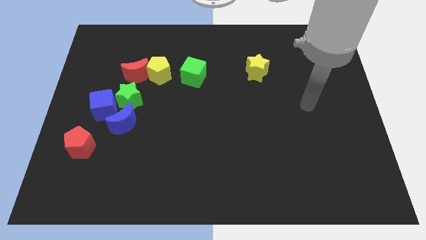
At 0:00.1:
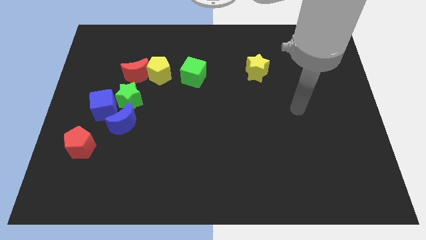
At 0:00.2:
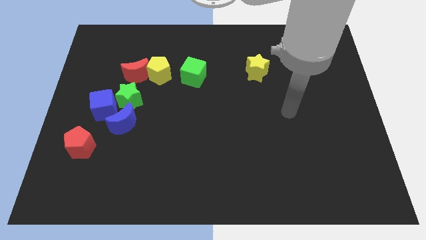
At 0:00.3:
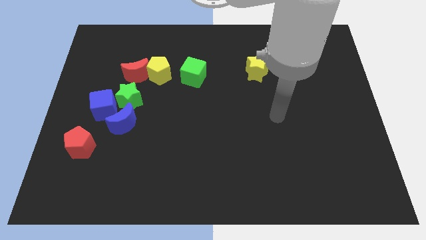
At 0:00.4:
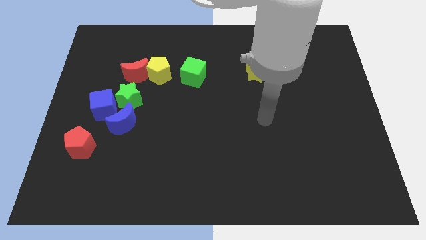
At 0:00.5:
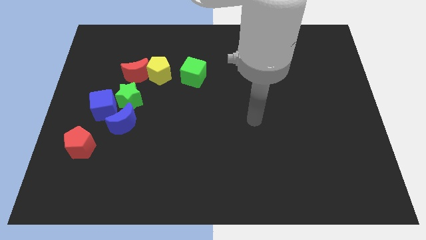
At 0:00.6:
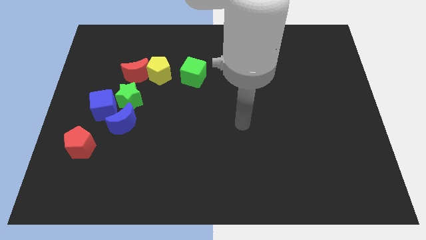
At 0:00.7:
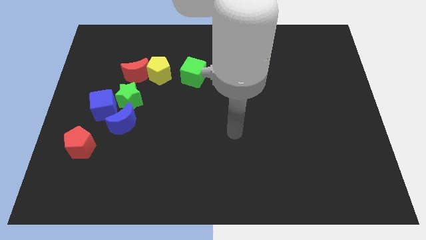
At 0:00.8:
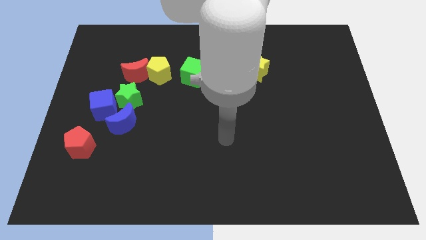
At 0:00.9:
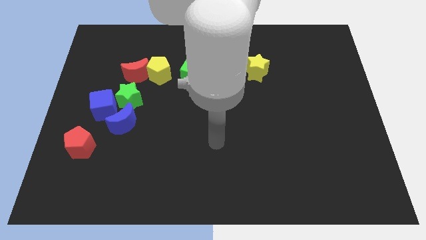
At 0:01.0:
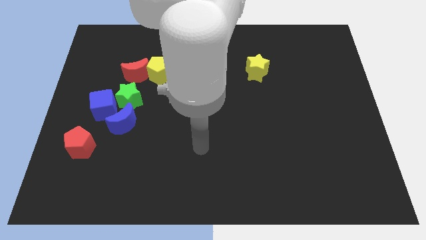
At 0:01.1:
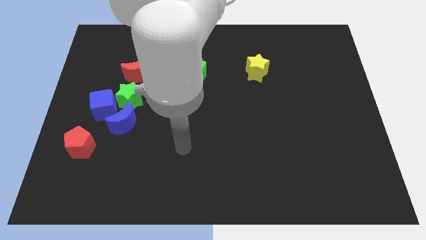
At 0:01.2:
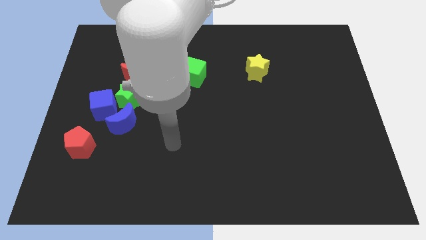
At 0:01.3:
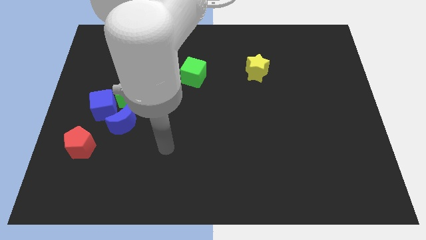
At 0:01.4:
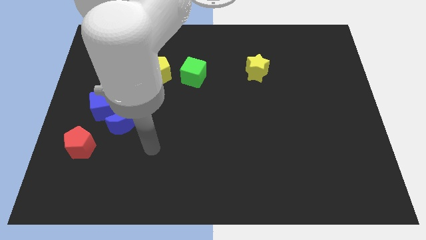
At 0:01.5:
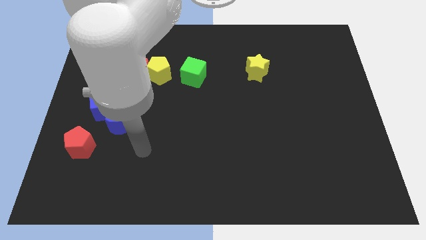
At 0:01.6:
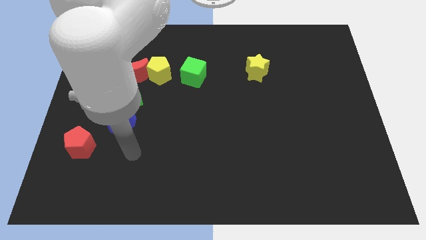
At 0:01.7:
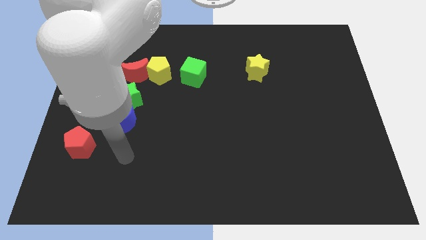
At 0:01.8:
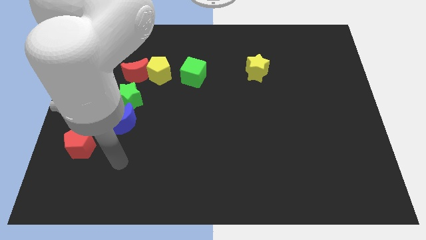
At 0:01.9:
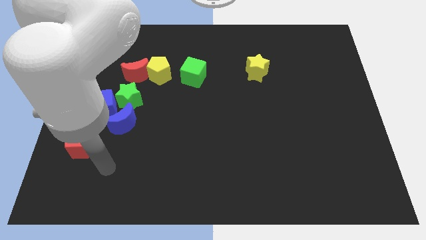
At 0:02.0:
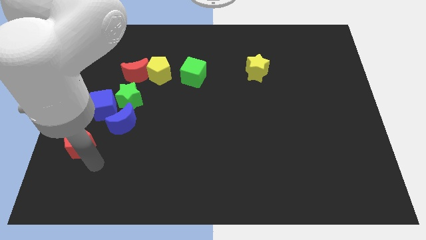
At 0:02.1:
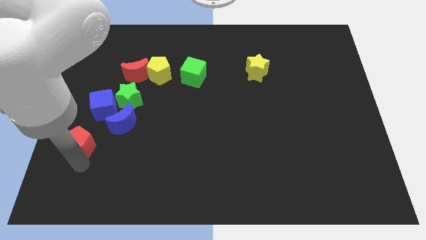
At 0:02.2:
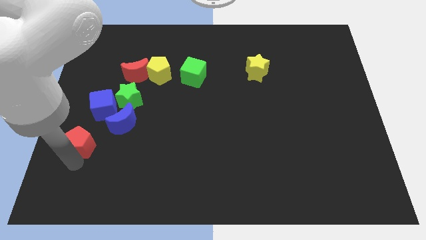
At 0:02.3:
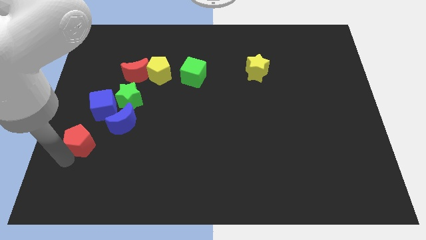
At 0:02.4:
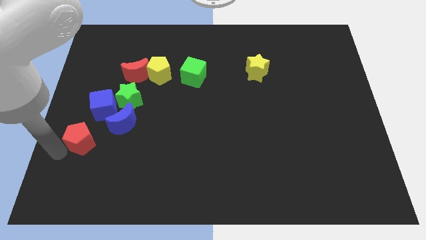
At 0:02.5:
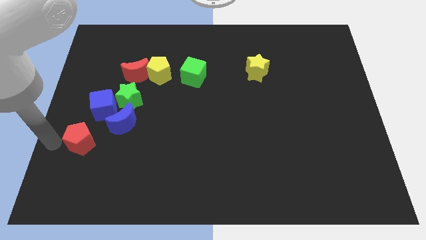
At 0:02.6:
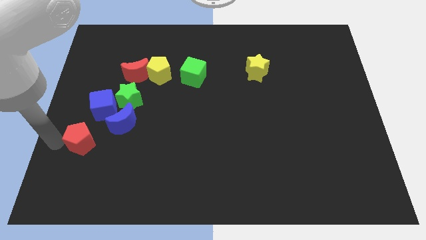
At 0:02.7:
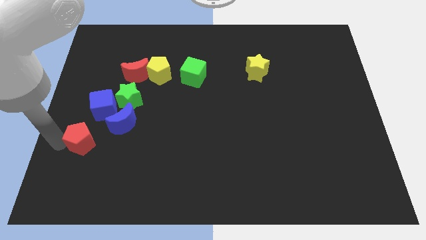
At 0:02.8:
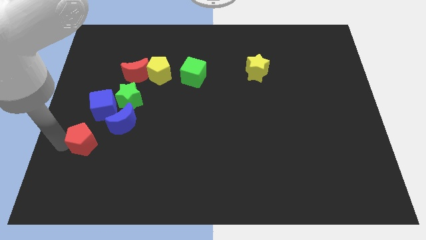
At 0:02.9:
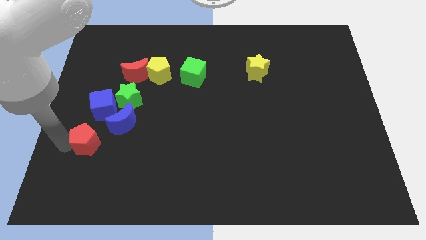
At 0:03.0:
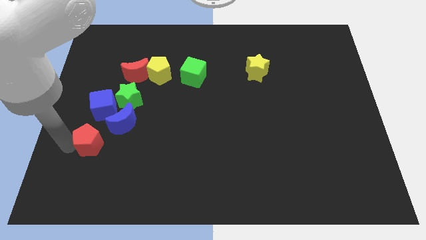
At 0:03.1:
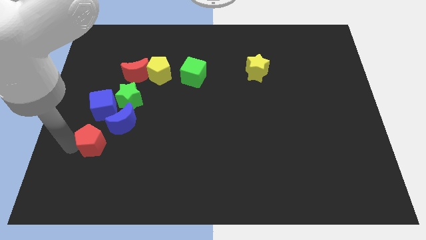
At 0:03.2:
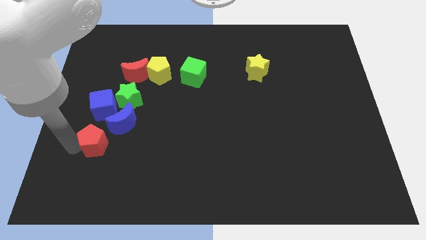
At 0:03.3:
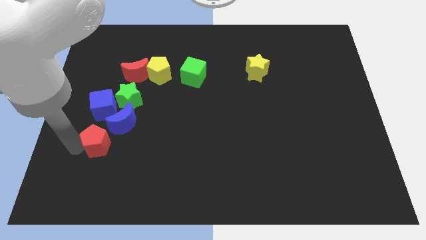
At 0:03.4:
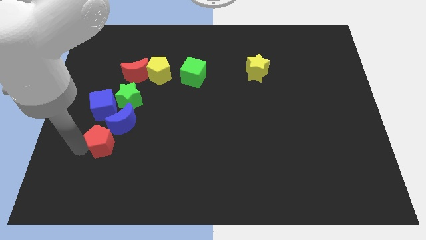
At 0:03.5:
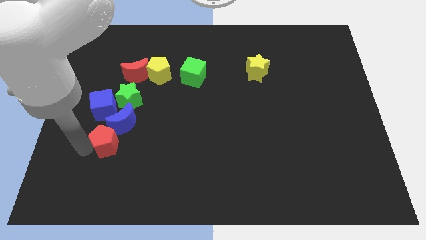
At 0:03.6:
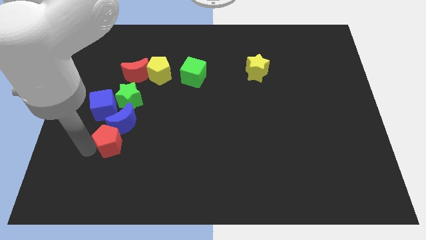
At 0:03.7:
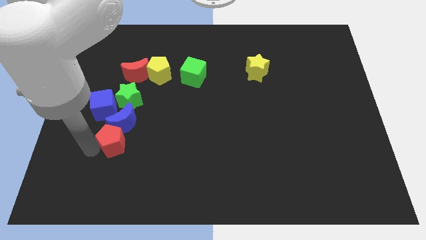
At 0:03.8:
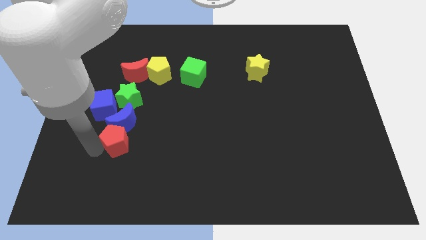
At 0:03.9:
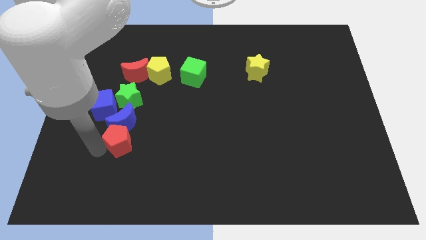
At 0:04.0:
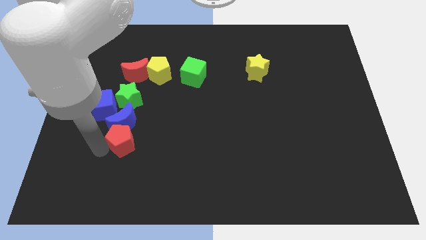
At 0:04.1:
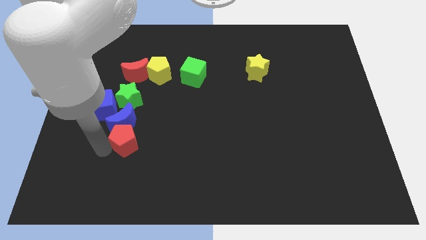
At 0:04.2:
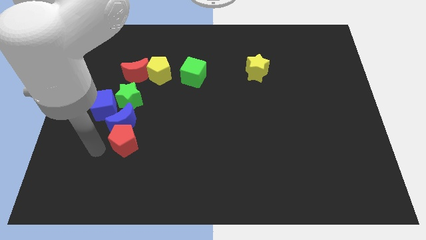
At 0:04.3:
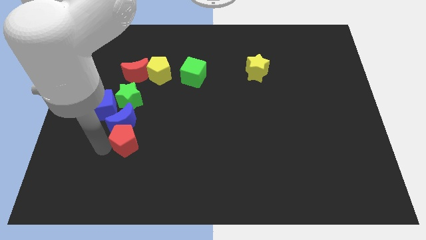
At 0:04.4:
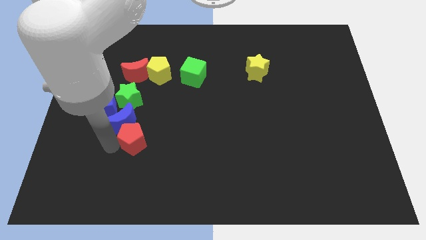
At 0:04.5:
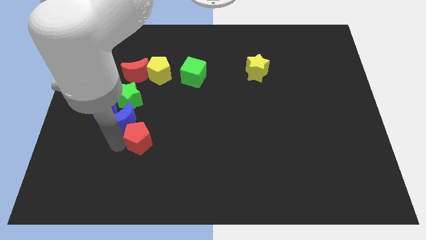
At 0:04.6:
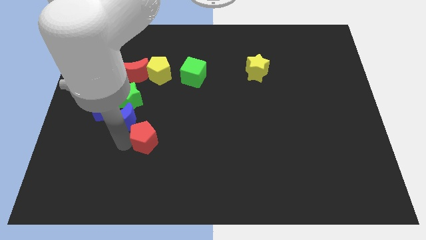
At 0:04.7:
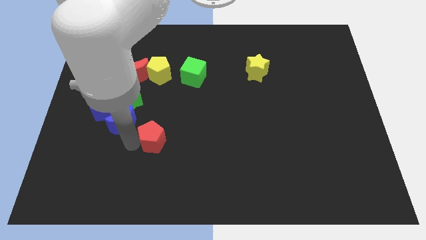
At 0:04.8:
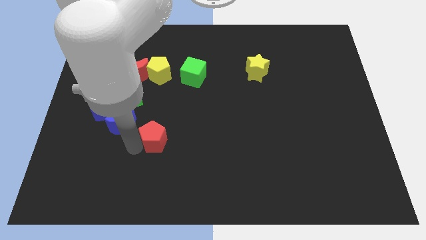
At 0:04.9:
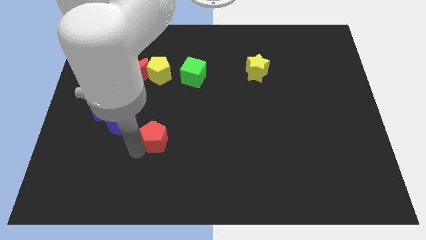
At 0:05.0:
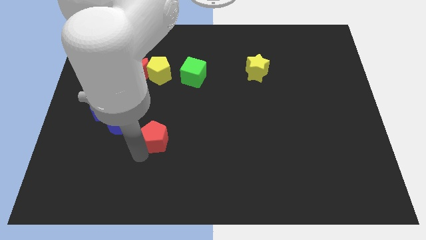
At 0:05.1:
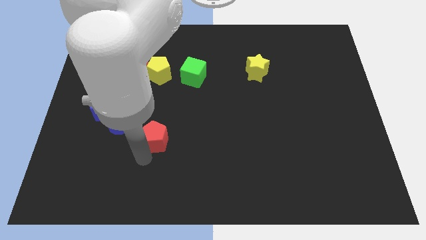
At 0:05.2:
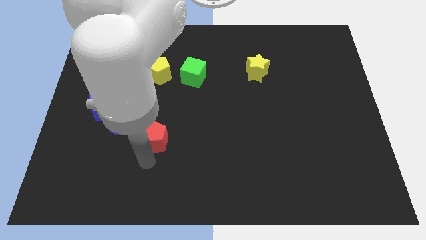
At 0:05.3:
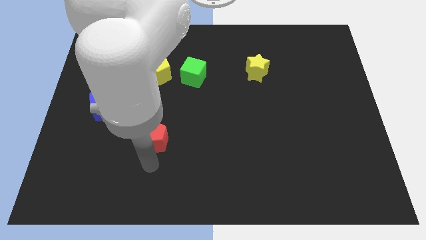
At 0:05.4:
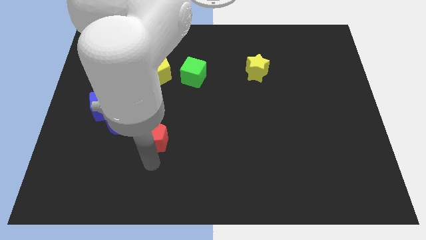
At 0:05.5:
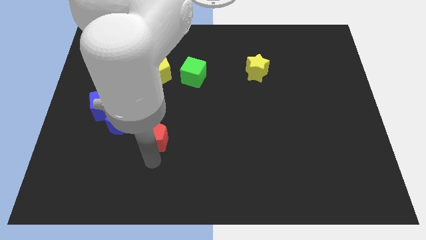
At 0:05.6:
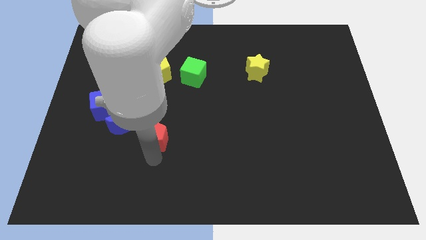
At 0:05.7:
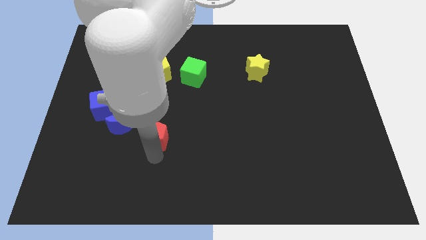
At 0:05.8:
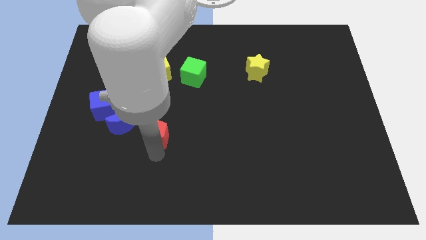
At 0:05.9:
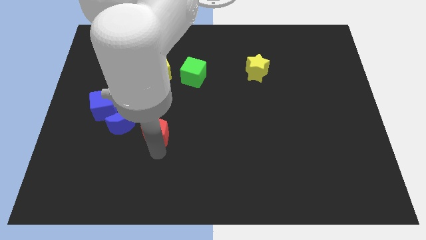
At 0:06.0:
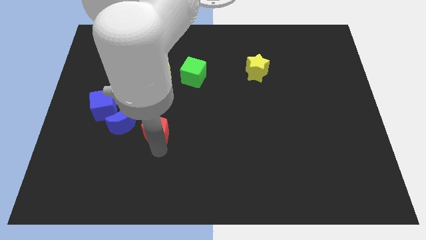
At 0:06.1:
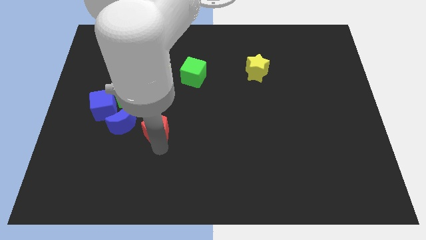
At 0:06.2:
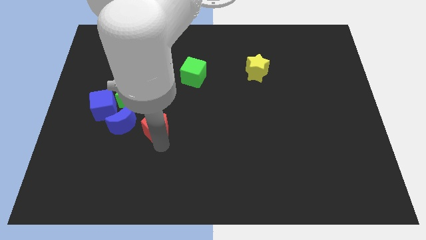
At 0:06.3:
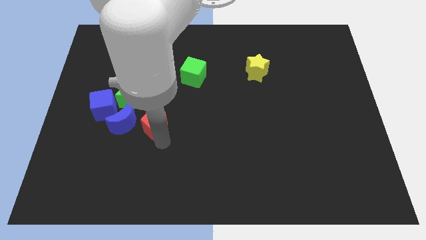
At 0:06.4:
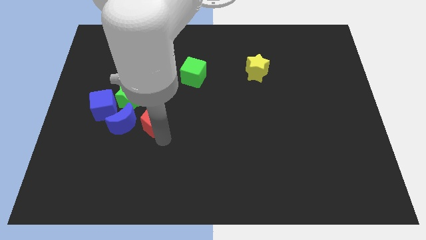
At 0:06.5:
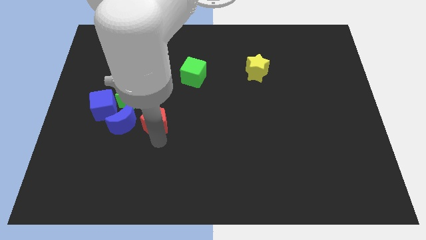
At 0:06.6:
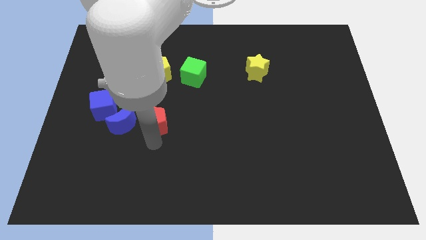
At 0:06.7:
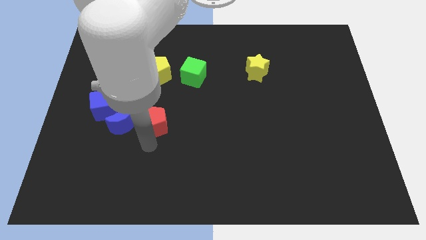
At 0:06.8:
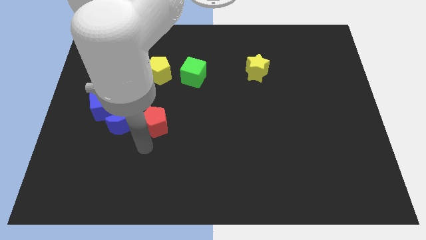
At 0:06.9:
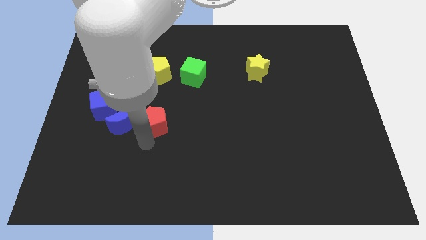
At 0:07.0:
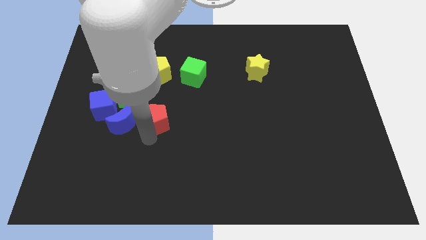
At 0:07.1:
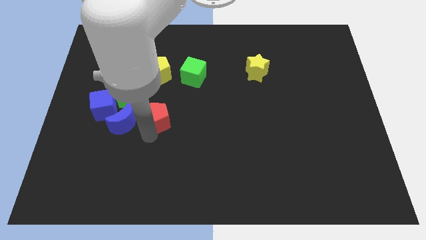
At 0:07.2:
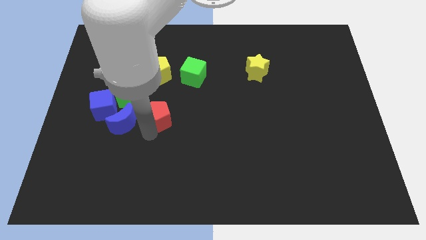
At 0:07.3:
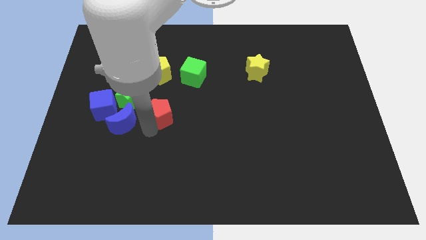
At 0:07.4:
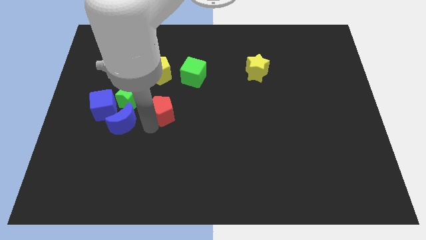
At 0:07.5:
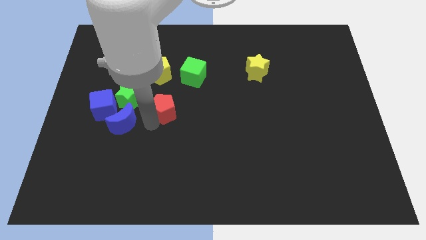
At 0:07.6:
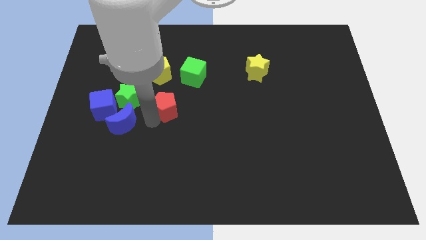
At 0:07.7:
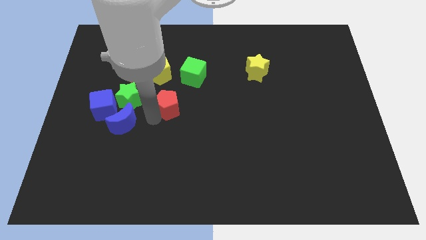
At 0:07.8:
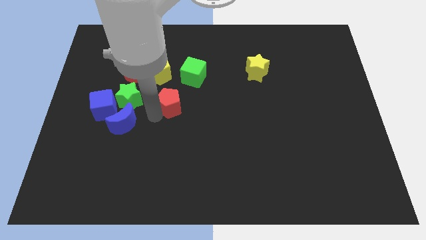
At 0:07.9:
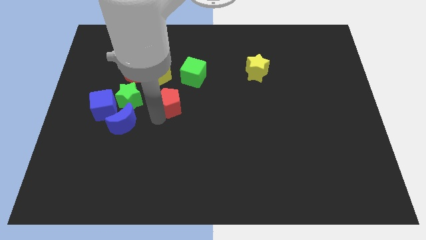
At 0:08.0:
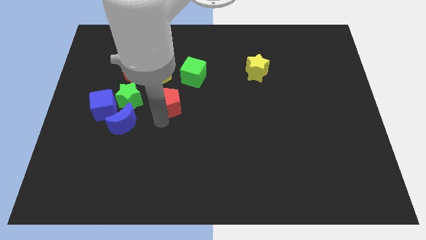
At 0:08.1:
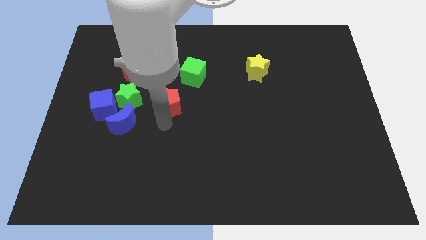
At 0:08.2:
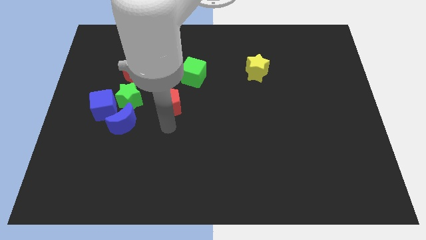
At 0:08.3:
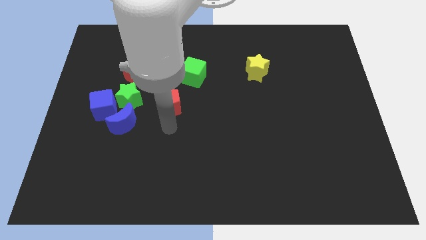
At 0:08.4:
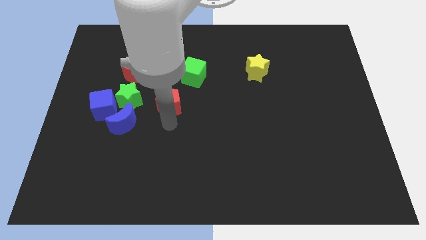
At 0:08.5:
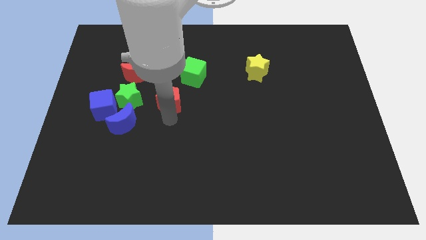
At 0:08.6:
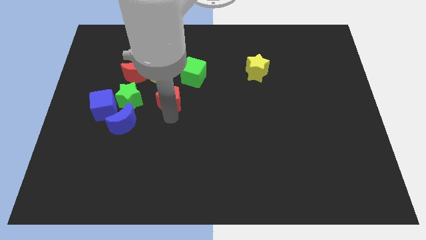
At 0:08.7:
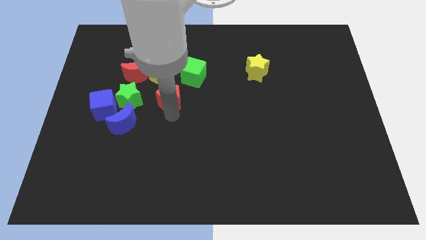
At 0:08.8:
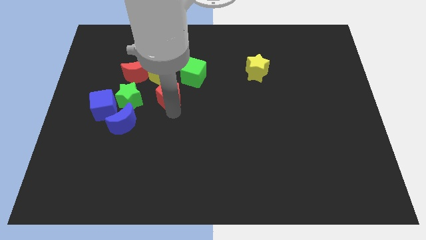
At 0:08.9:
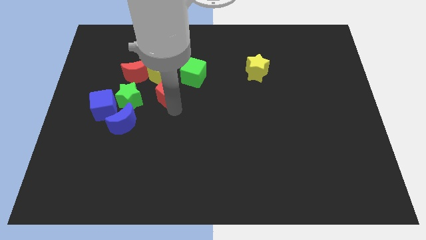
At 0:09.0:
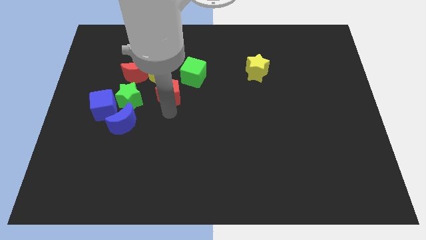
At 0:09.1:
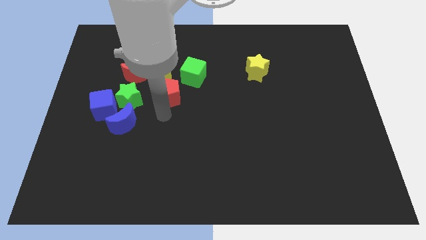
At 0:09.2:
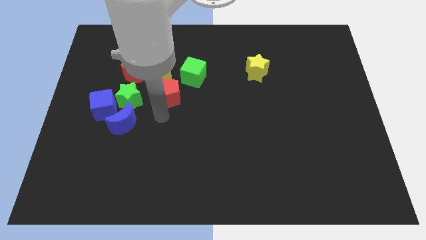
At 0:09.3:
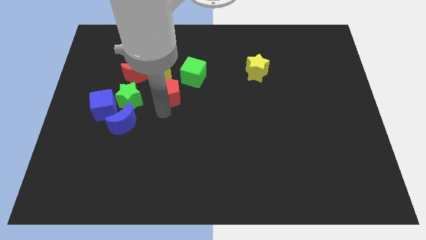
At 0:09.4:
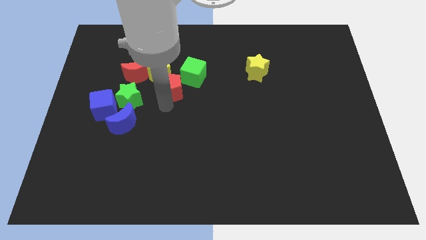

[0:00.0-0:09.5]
move the red pentagon to the right of the red moon
